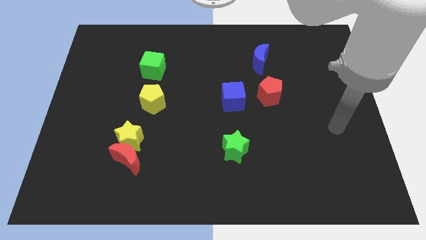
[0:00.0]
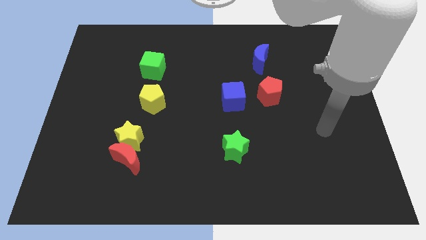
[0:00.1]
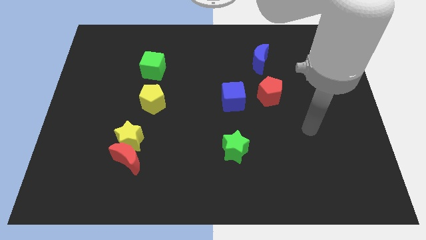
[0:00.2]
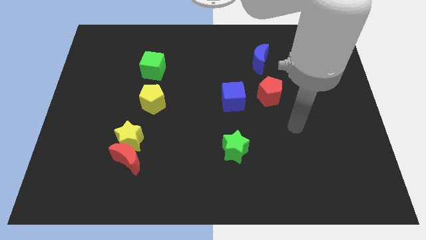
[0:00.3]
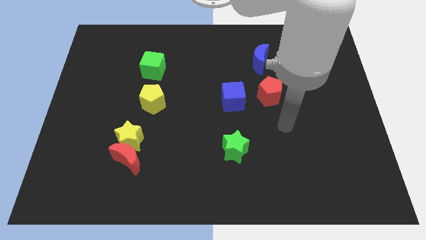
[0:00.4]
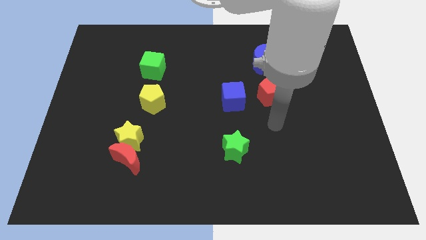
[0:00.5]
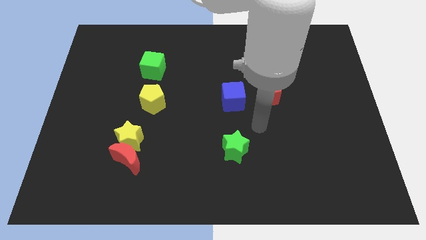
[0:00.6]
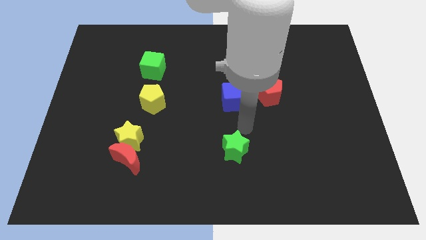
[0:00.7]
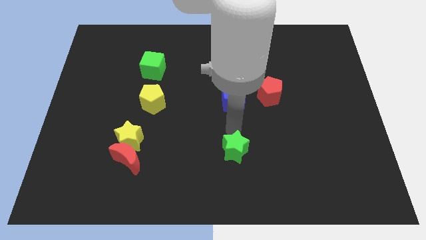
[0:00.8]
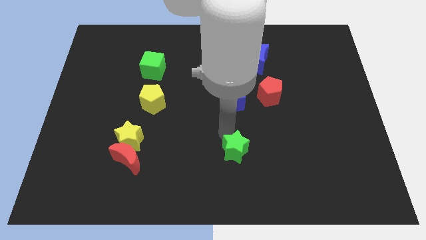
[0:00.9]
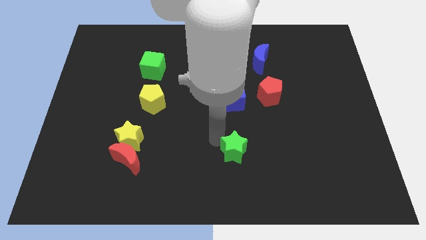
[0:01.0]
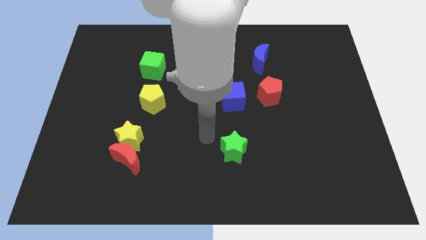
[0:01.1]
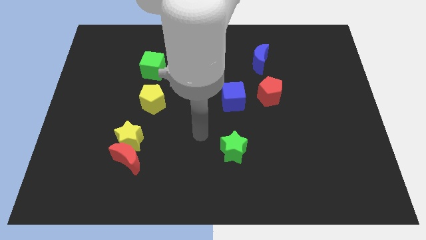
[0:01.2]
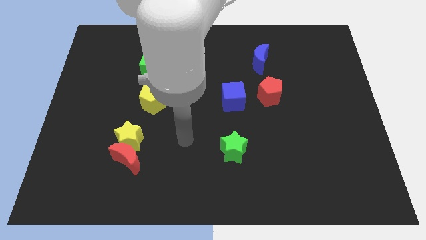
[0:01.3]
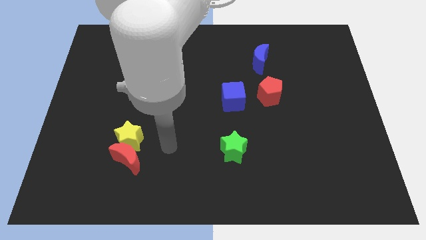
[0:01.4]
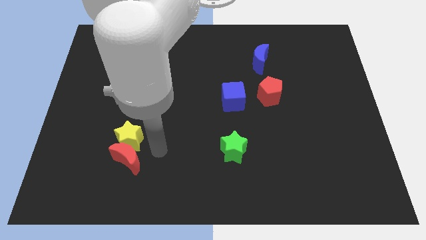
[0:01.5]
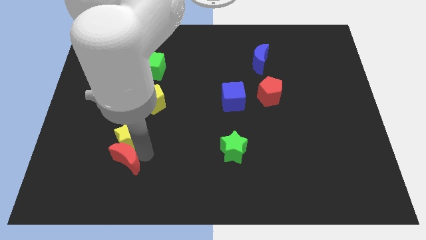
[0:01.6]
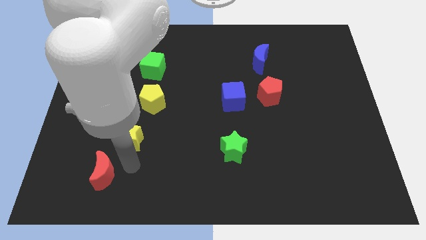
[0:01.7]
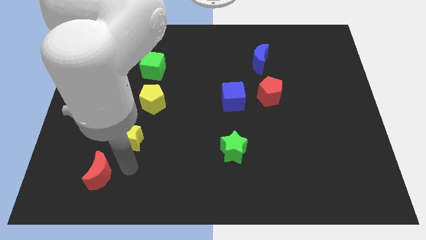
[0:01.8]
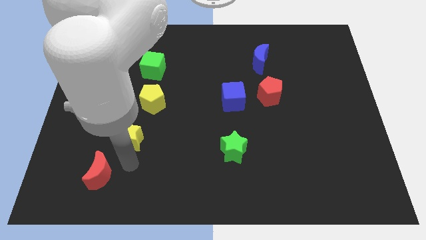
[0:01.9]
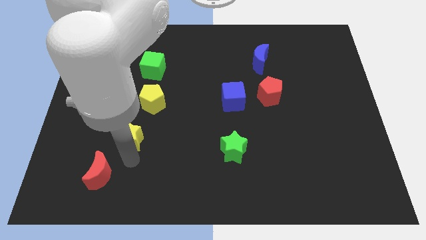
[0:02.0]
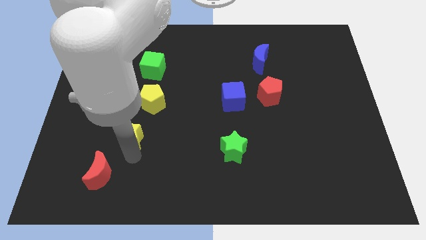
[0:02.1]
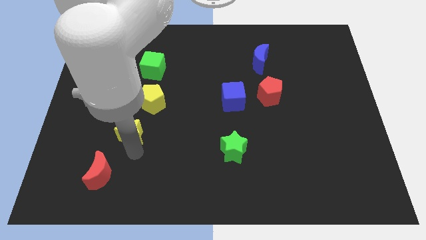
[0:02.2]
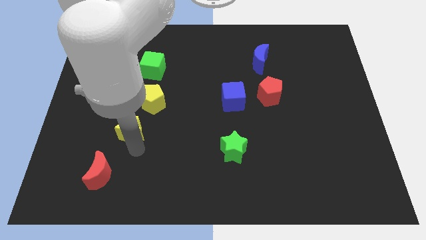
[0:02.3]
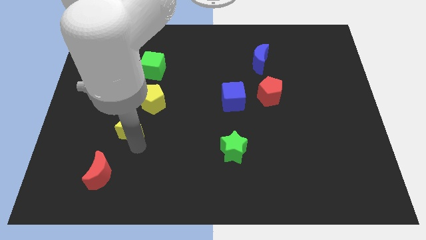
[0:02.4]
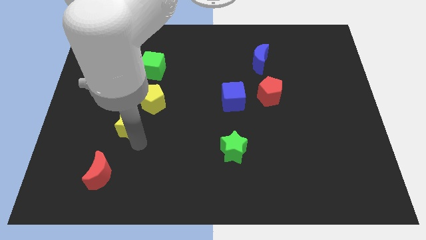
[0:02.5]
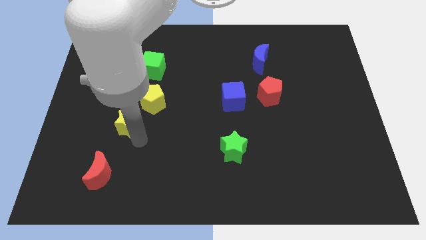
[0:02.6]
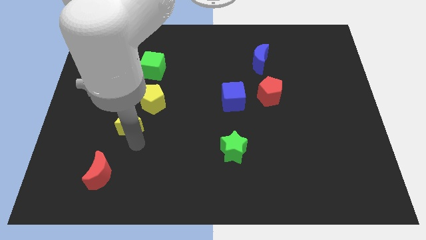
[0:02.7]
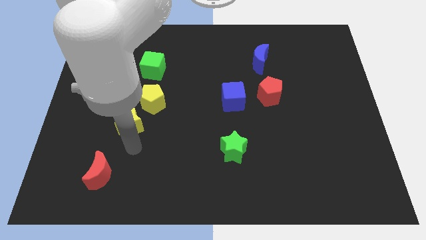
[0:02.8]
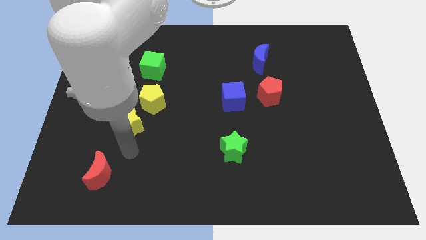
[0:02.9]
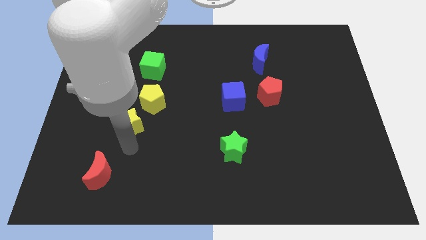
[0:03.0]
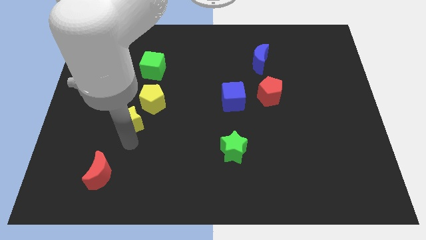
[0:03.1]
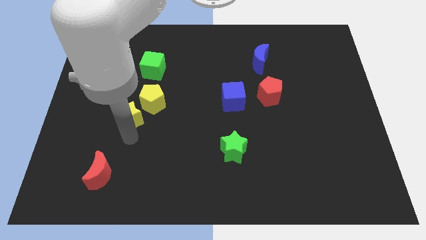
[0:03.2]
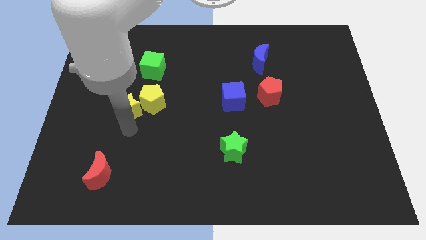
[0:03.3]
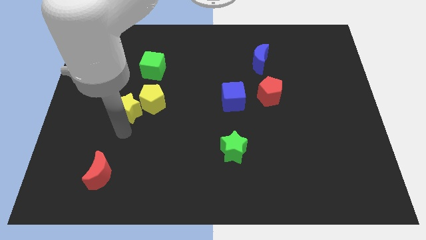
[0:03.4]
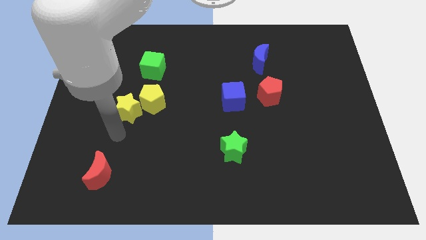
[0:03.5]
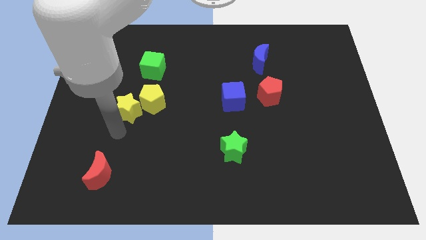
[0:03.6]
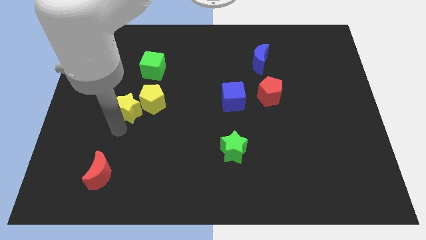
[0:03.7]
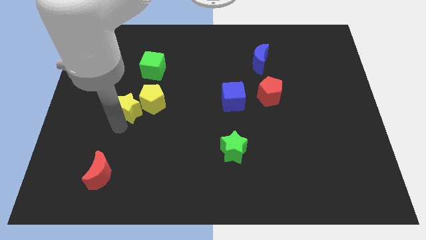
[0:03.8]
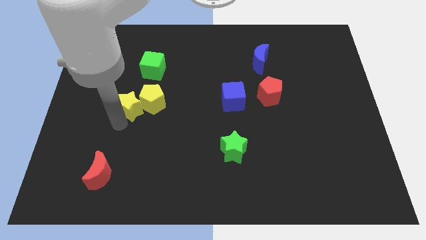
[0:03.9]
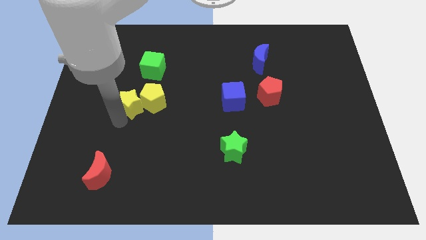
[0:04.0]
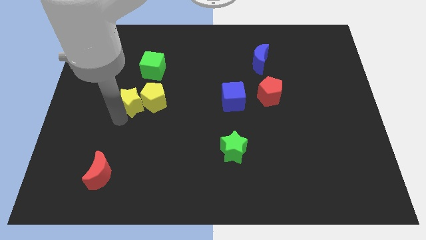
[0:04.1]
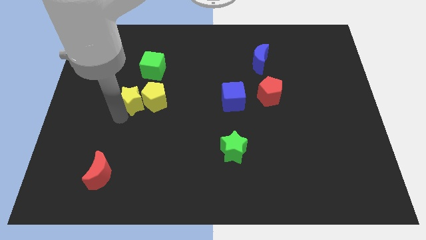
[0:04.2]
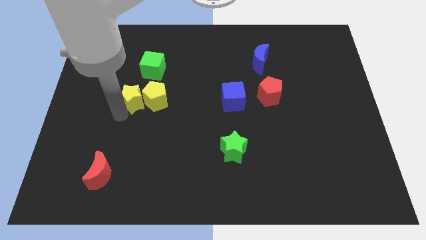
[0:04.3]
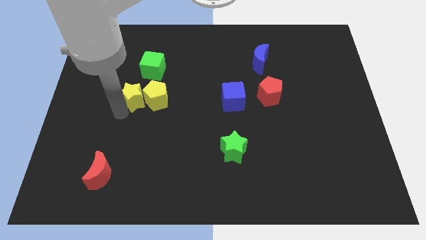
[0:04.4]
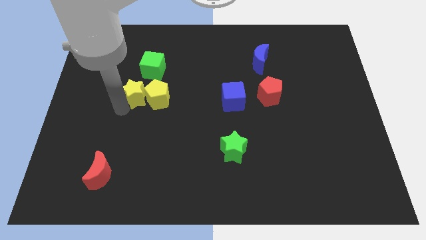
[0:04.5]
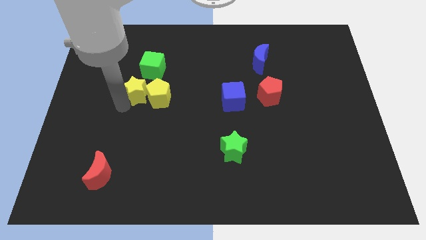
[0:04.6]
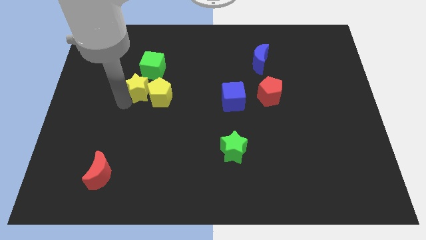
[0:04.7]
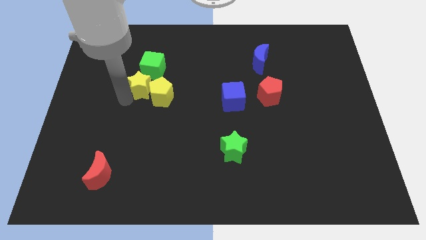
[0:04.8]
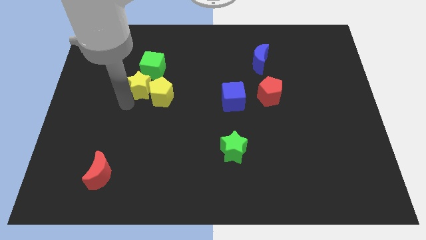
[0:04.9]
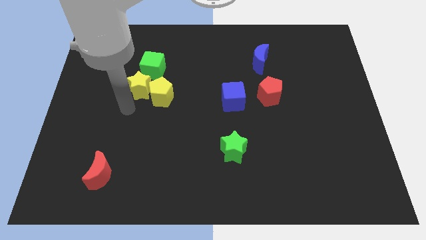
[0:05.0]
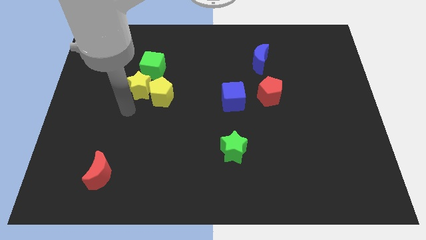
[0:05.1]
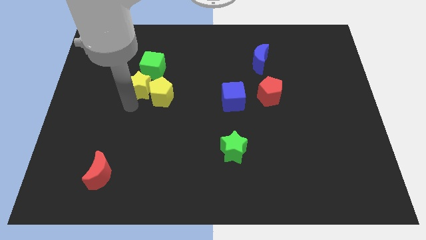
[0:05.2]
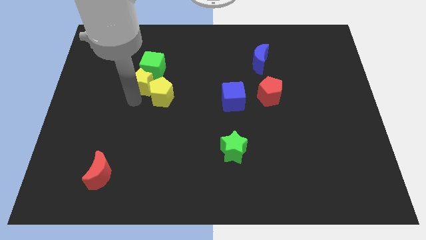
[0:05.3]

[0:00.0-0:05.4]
put the yellow star to the green cube

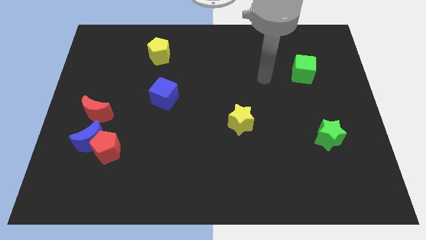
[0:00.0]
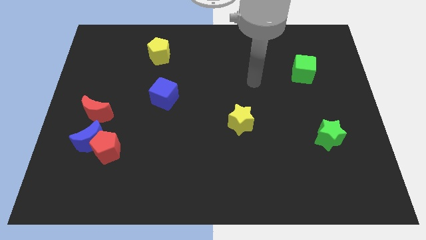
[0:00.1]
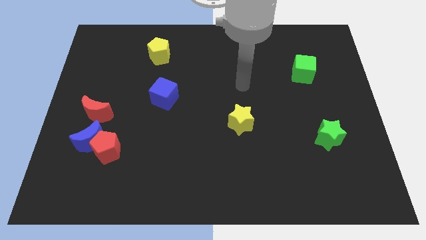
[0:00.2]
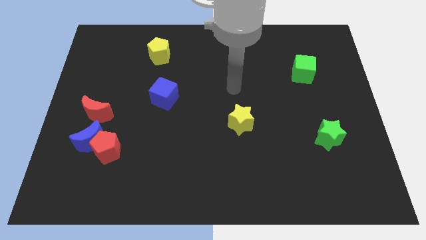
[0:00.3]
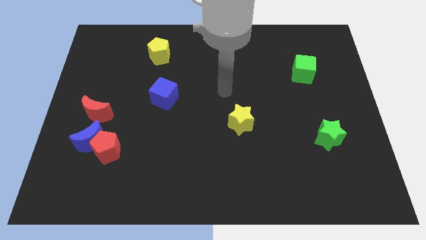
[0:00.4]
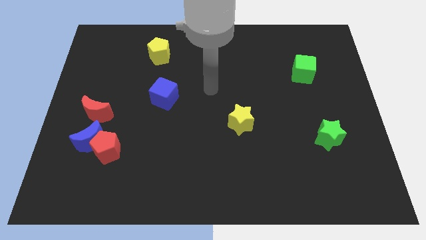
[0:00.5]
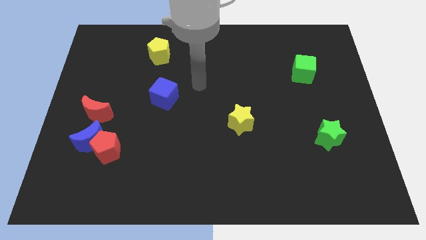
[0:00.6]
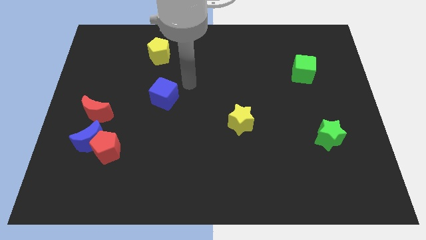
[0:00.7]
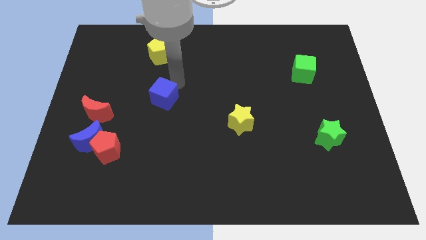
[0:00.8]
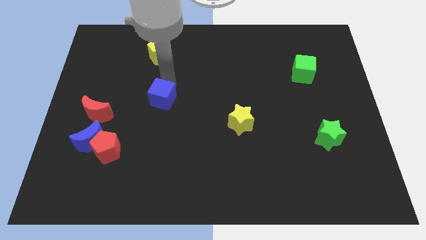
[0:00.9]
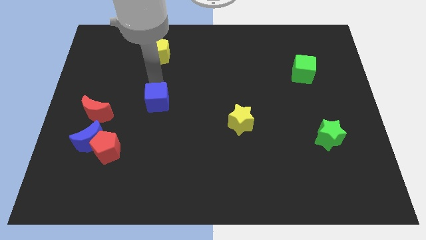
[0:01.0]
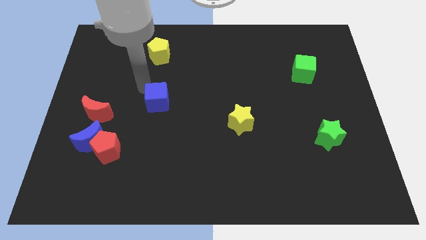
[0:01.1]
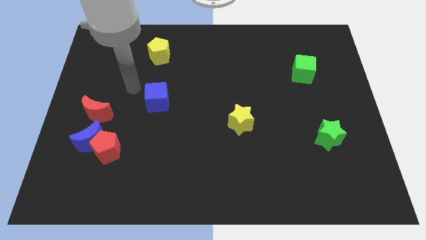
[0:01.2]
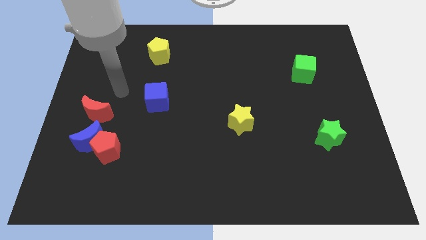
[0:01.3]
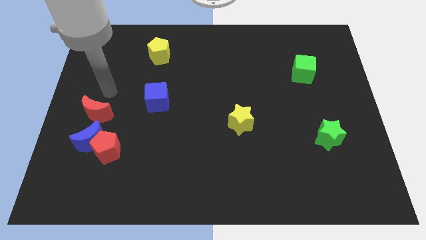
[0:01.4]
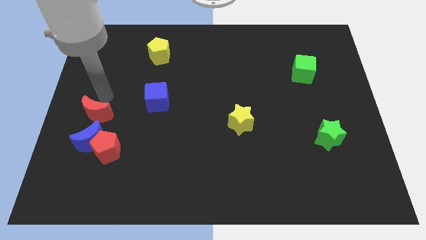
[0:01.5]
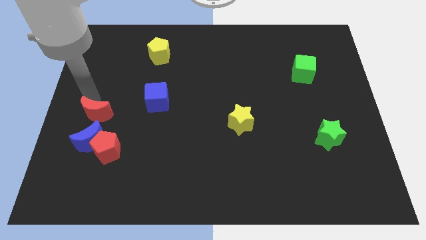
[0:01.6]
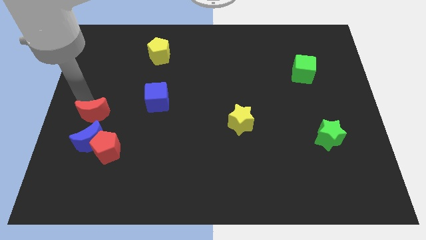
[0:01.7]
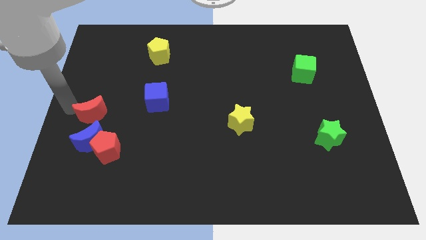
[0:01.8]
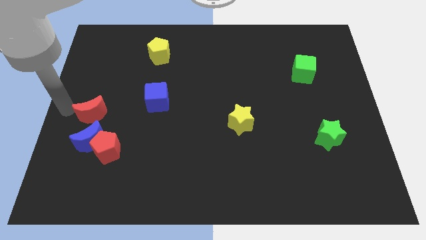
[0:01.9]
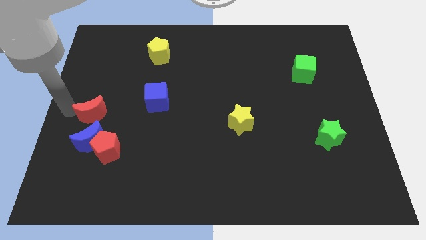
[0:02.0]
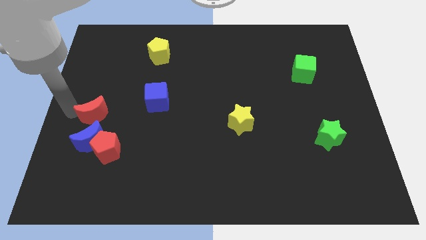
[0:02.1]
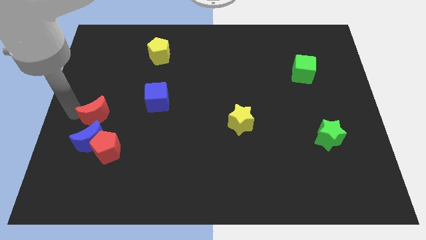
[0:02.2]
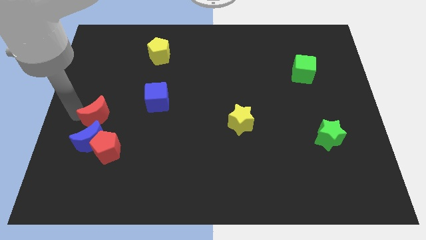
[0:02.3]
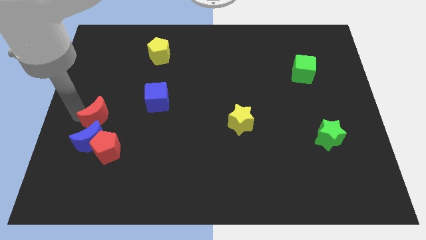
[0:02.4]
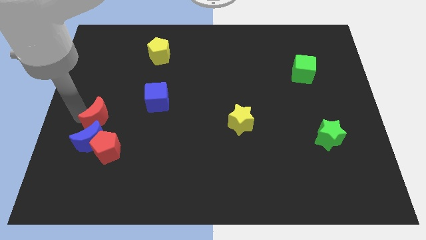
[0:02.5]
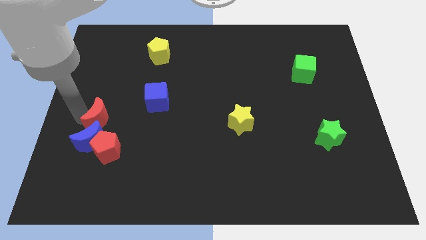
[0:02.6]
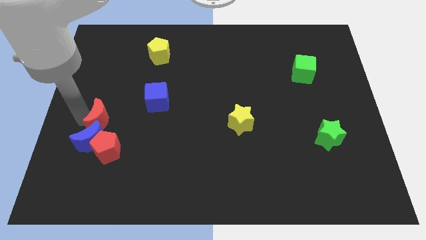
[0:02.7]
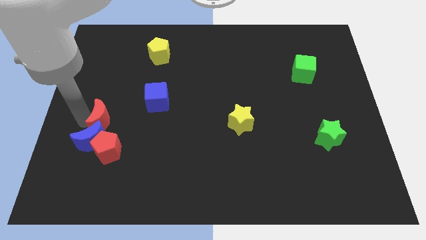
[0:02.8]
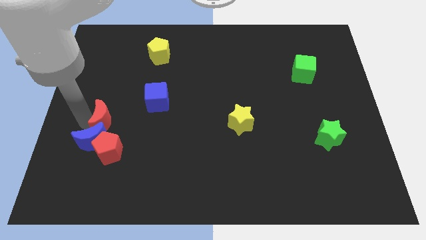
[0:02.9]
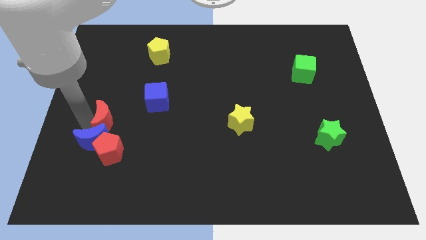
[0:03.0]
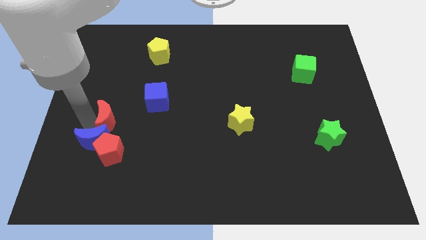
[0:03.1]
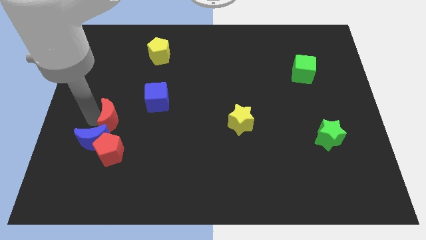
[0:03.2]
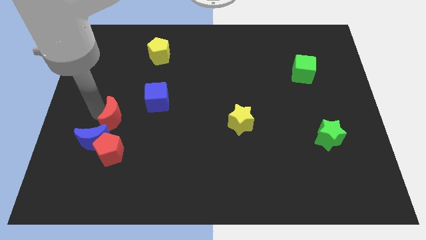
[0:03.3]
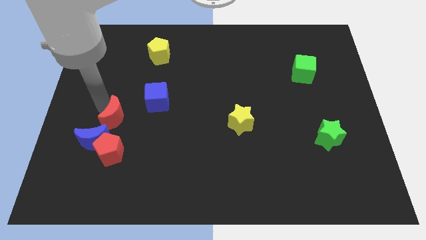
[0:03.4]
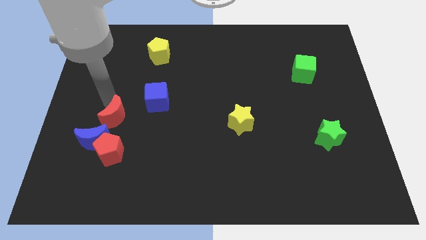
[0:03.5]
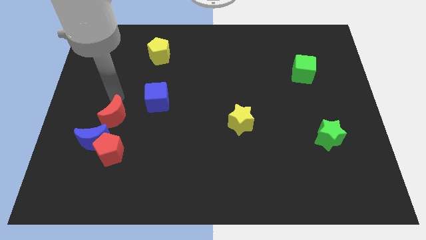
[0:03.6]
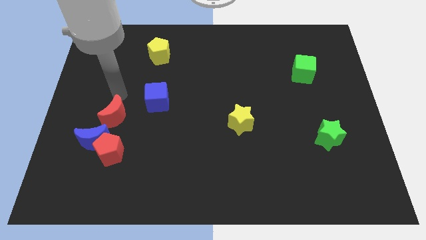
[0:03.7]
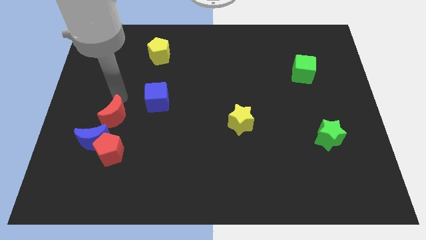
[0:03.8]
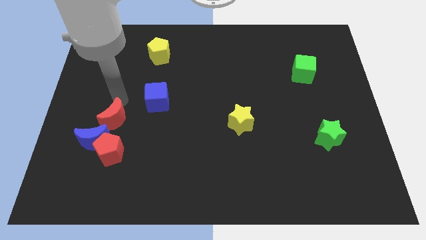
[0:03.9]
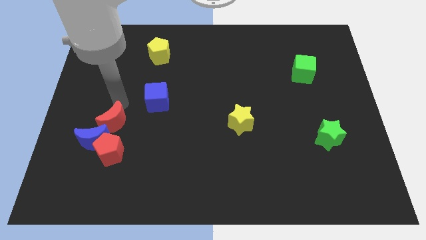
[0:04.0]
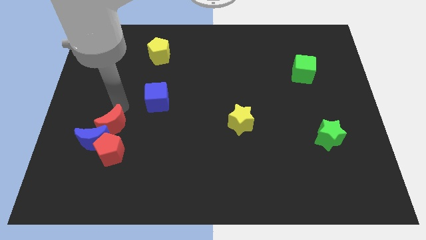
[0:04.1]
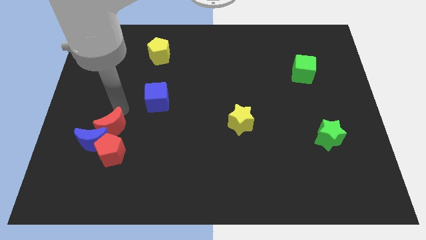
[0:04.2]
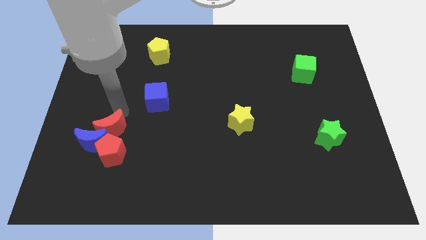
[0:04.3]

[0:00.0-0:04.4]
push the red moon to the red pentagon
